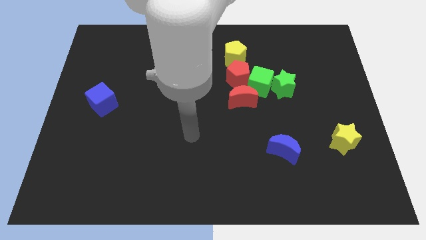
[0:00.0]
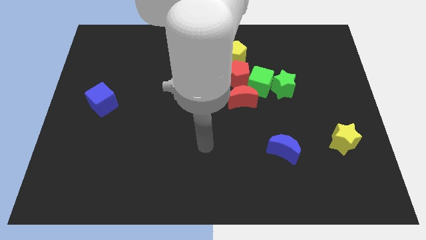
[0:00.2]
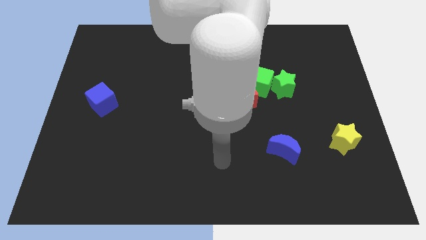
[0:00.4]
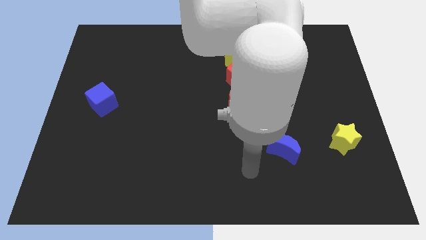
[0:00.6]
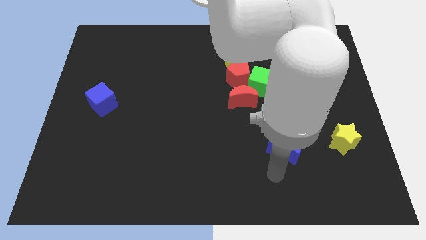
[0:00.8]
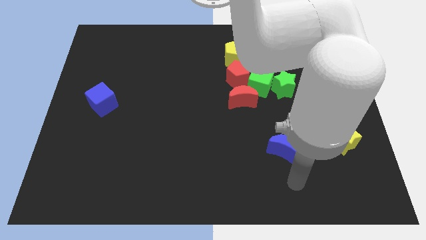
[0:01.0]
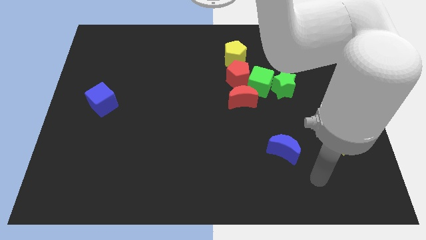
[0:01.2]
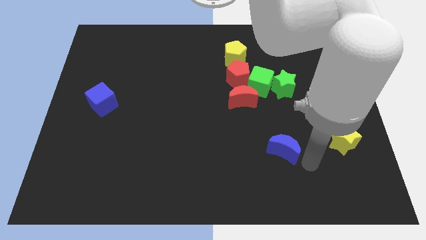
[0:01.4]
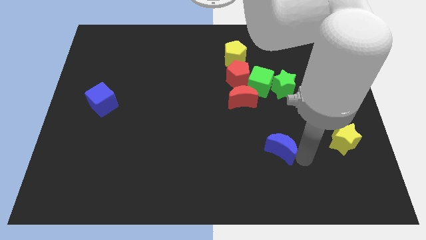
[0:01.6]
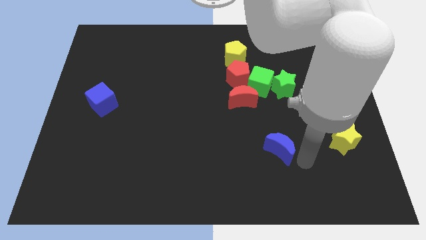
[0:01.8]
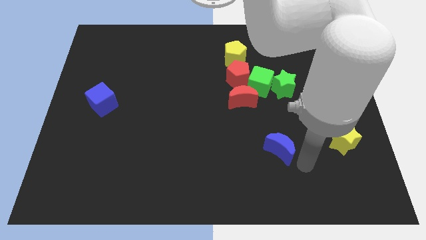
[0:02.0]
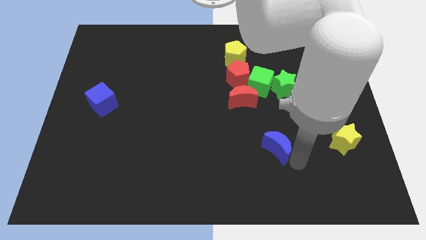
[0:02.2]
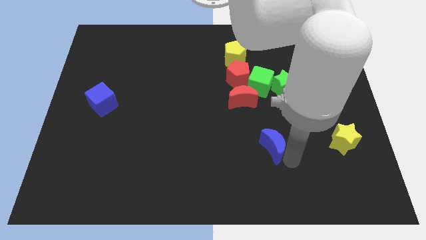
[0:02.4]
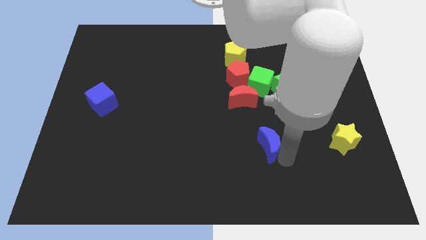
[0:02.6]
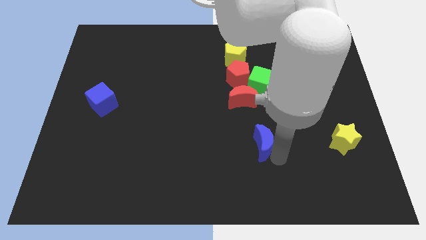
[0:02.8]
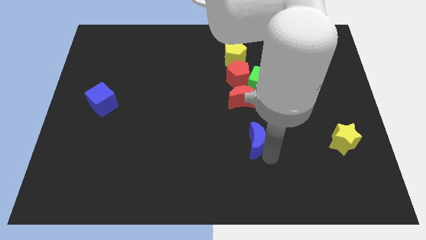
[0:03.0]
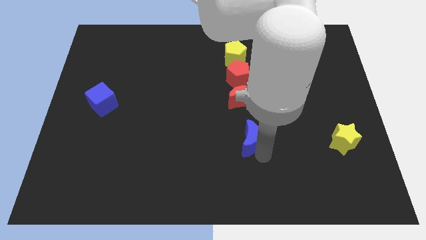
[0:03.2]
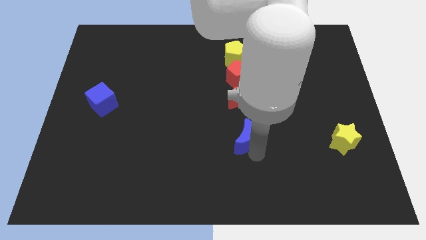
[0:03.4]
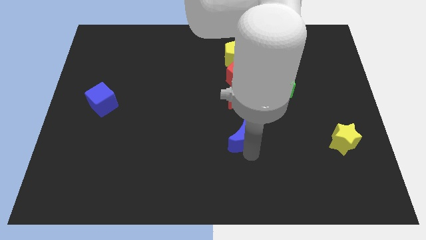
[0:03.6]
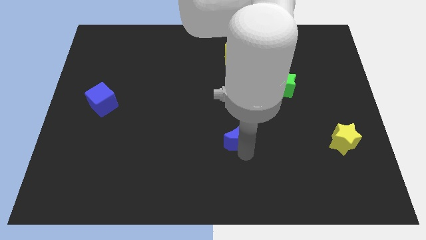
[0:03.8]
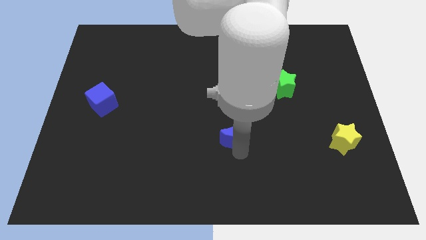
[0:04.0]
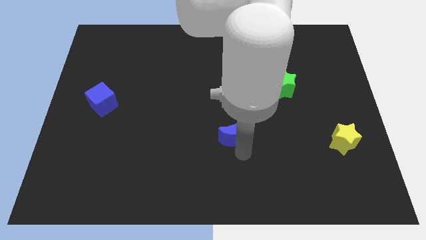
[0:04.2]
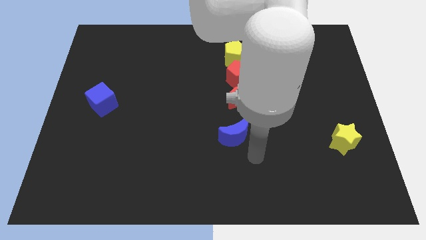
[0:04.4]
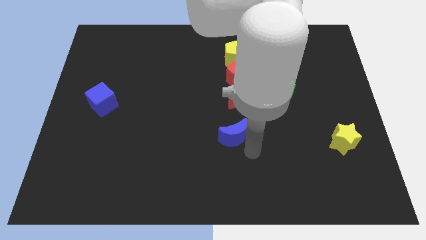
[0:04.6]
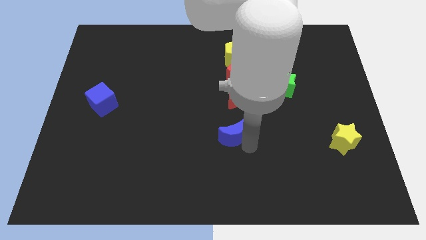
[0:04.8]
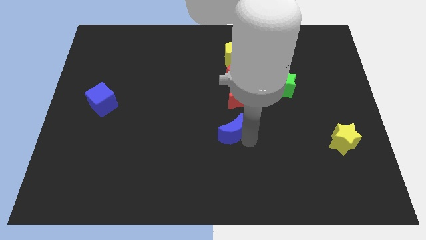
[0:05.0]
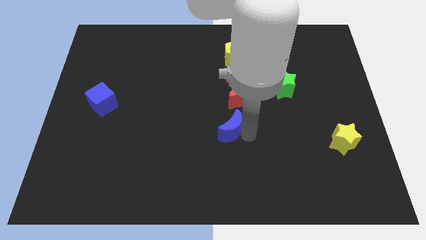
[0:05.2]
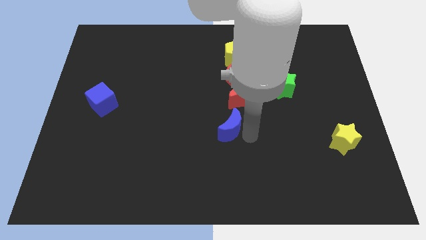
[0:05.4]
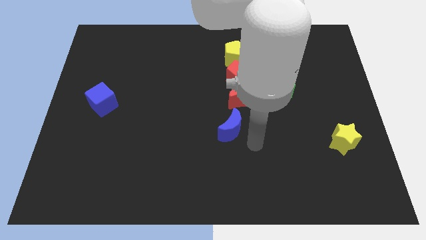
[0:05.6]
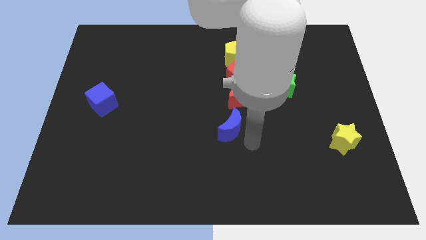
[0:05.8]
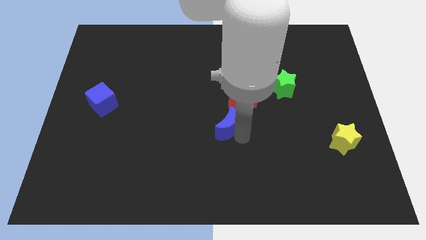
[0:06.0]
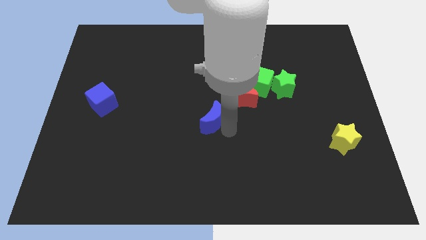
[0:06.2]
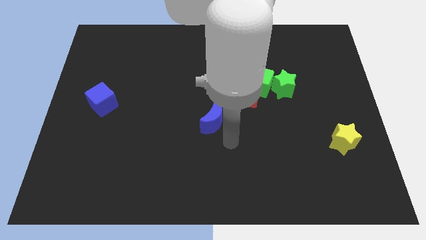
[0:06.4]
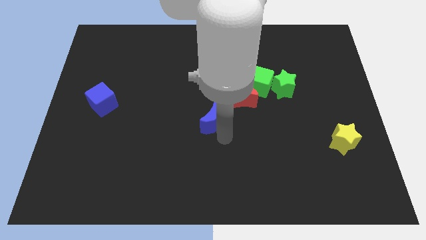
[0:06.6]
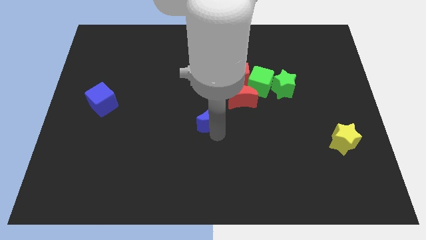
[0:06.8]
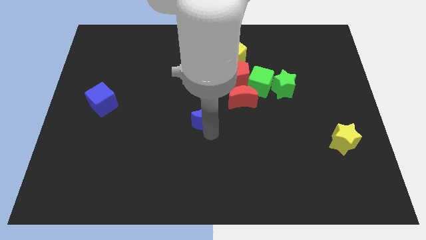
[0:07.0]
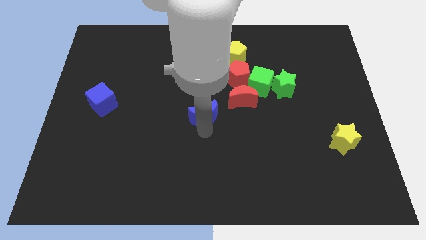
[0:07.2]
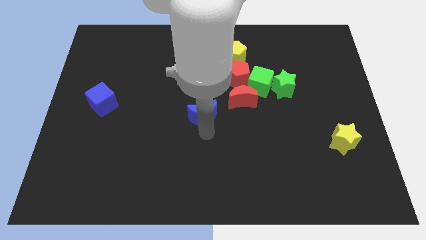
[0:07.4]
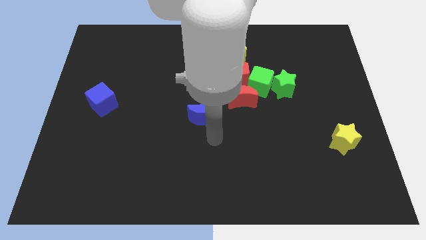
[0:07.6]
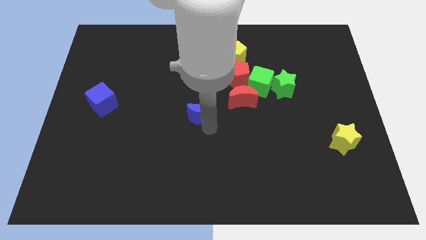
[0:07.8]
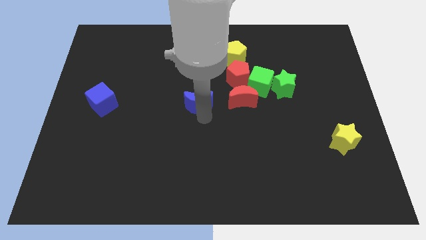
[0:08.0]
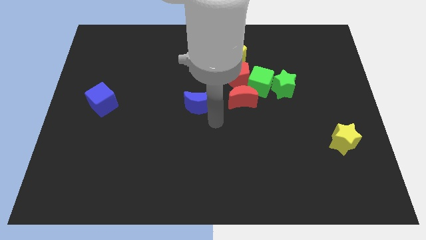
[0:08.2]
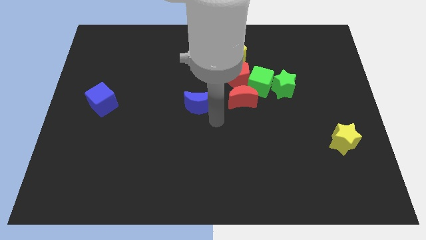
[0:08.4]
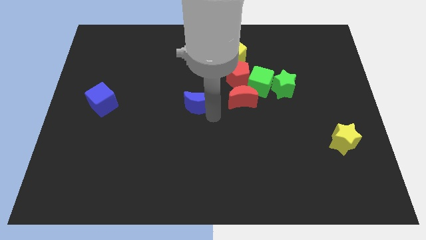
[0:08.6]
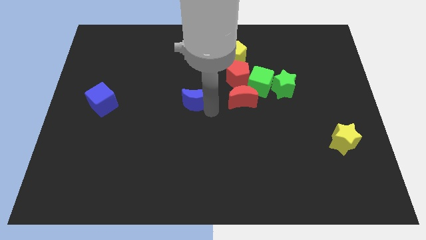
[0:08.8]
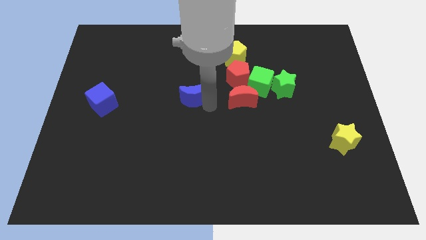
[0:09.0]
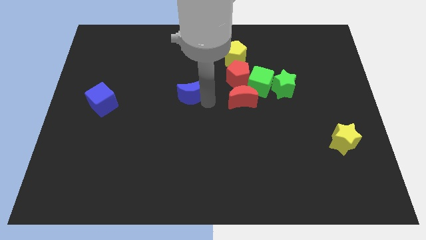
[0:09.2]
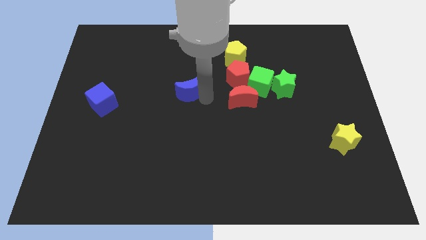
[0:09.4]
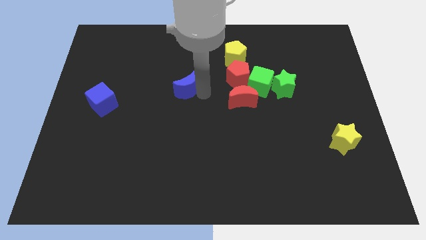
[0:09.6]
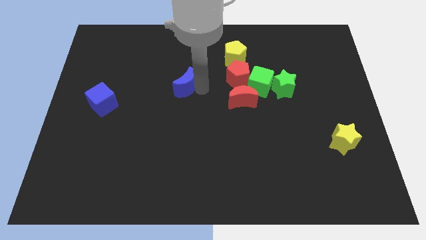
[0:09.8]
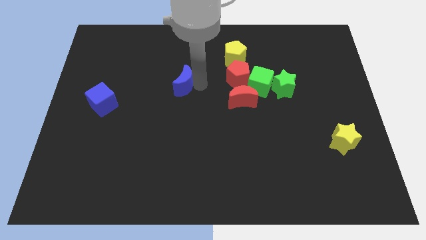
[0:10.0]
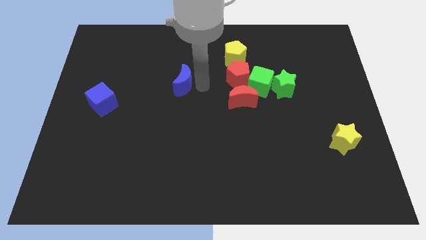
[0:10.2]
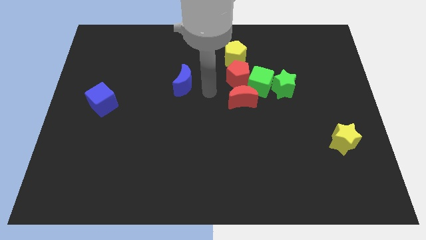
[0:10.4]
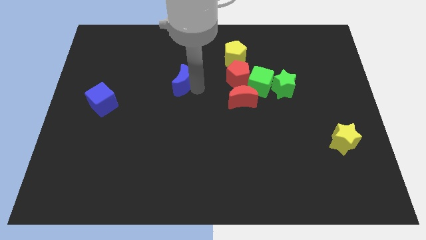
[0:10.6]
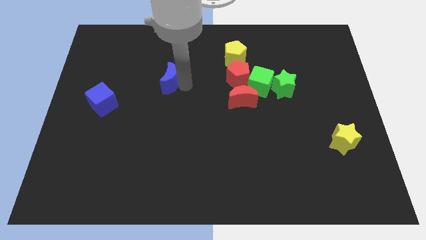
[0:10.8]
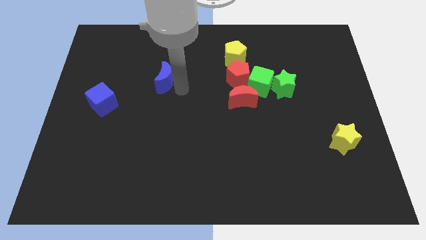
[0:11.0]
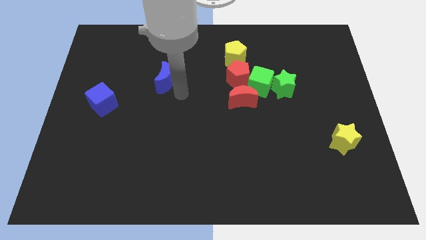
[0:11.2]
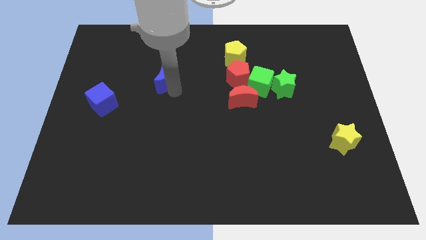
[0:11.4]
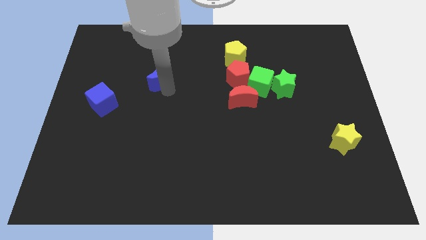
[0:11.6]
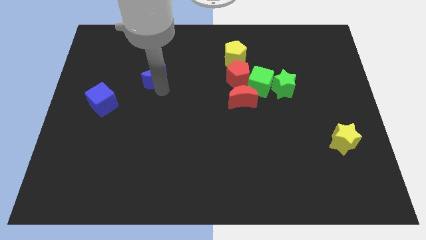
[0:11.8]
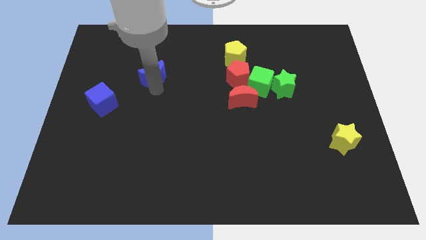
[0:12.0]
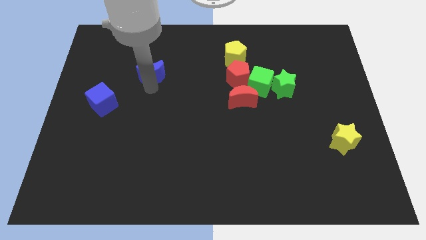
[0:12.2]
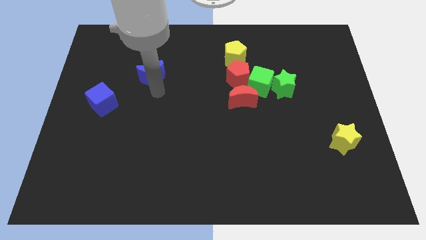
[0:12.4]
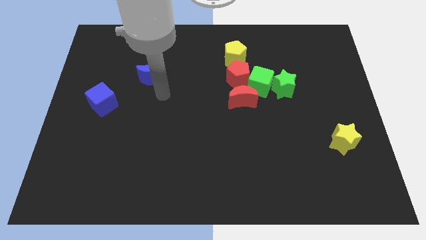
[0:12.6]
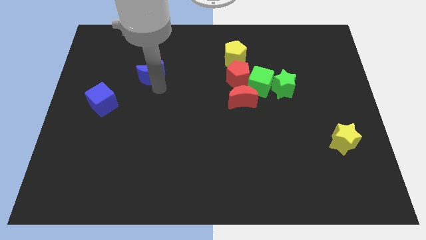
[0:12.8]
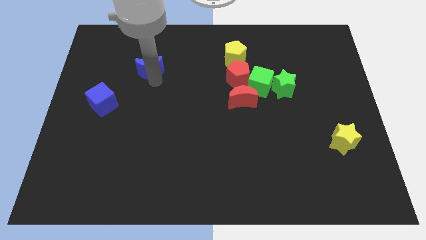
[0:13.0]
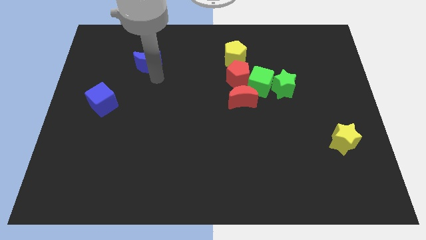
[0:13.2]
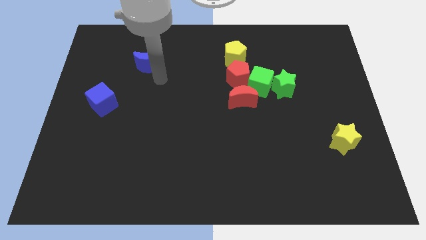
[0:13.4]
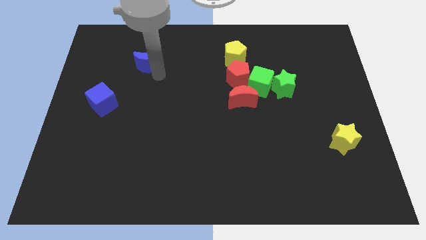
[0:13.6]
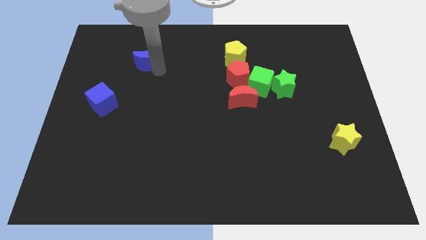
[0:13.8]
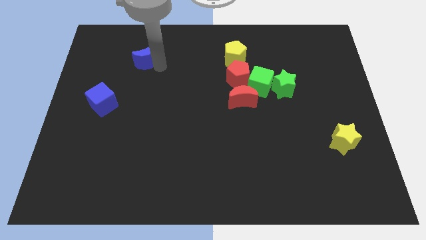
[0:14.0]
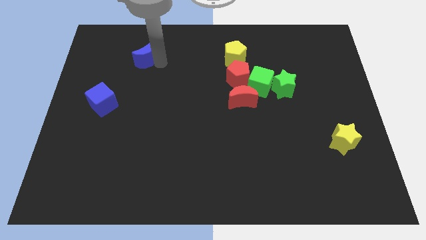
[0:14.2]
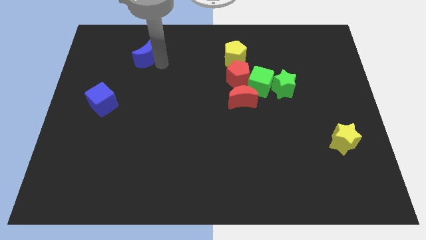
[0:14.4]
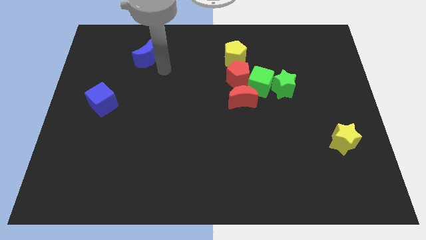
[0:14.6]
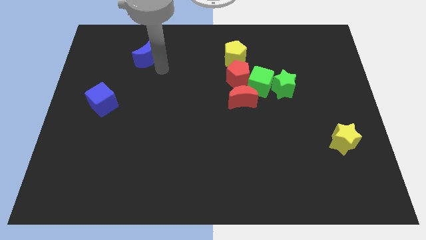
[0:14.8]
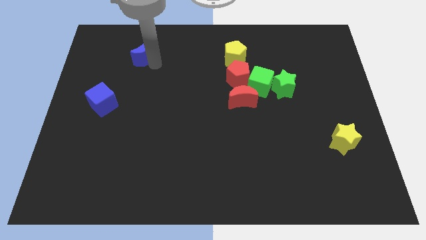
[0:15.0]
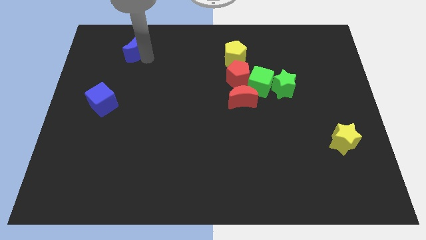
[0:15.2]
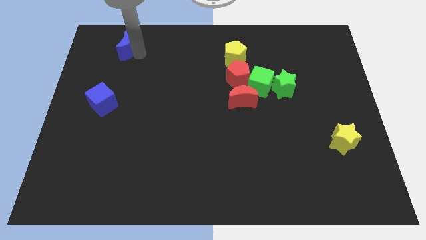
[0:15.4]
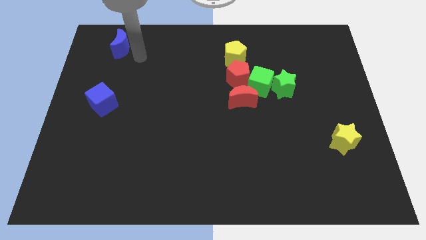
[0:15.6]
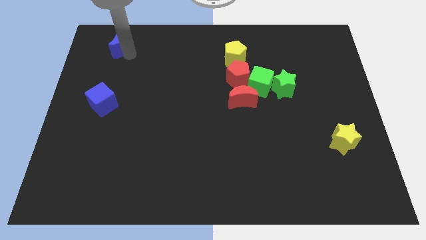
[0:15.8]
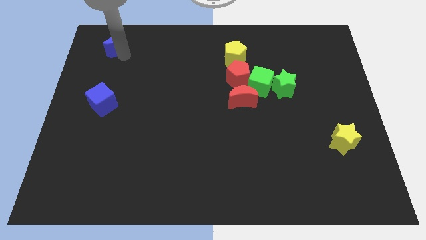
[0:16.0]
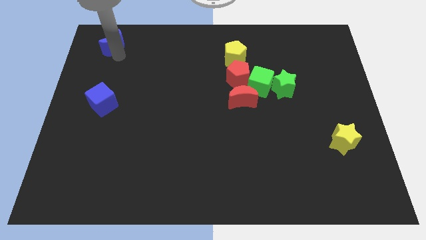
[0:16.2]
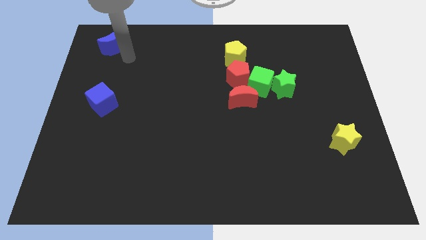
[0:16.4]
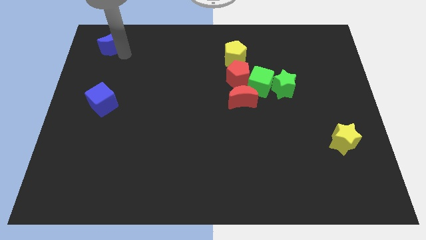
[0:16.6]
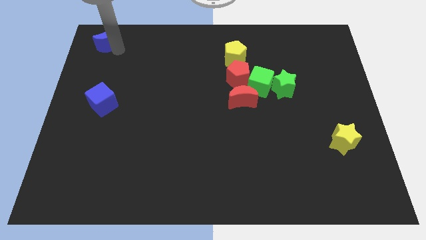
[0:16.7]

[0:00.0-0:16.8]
slide the blue moon to the upper left corner
